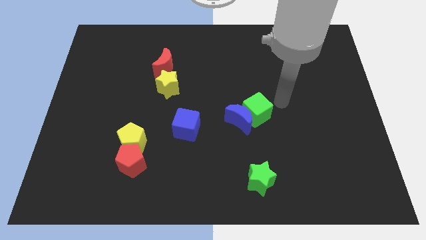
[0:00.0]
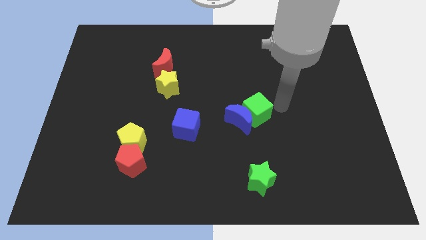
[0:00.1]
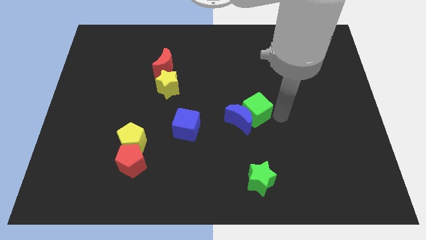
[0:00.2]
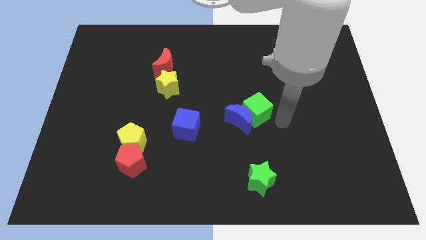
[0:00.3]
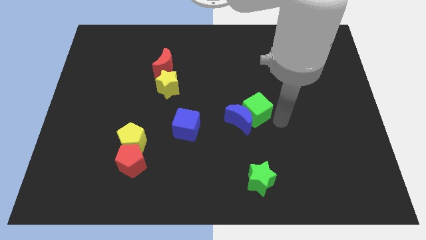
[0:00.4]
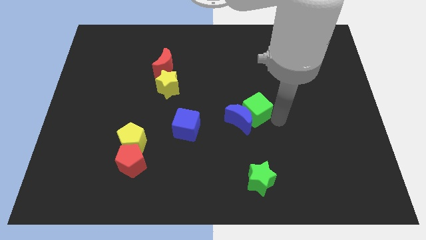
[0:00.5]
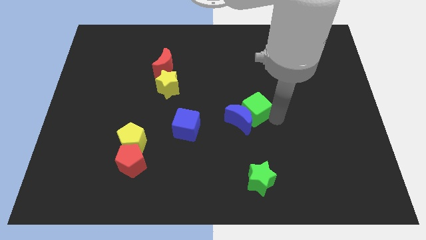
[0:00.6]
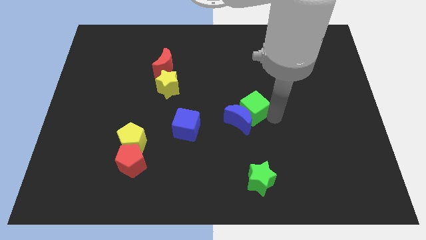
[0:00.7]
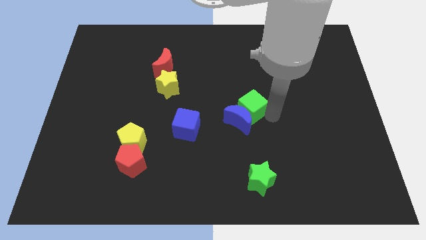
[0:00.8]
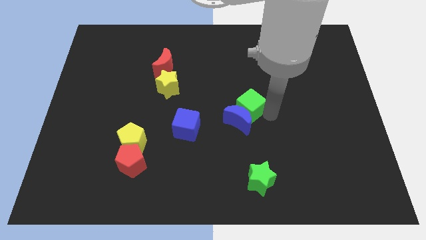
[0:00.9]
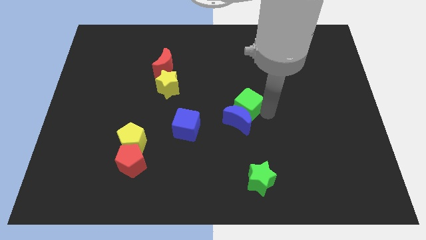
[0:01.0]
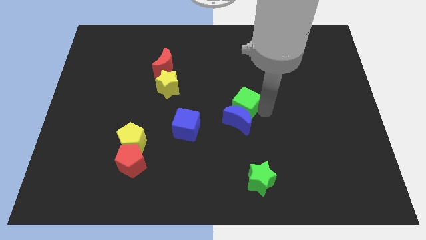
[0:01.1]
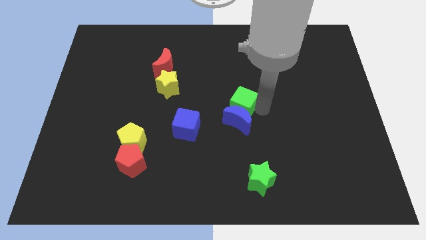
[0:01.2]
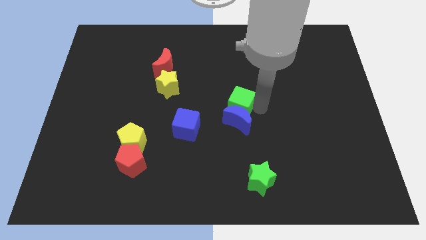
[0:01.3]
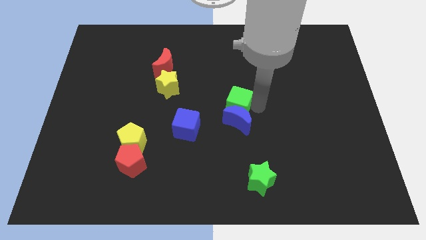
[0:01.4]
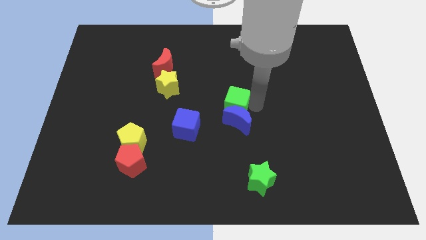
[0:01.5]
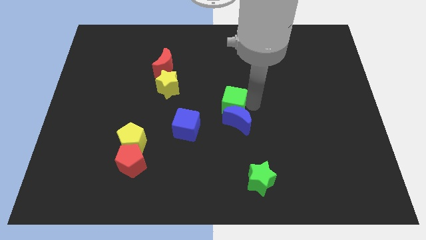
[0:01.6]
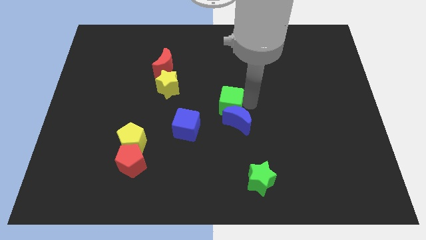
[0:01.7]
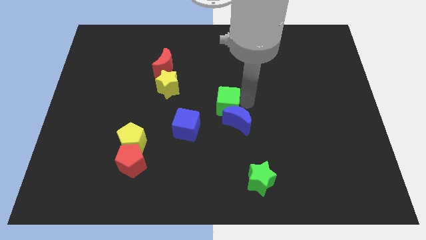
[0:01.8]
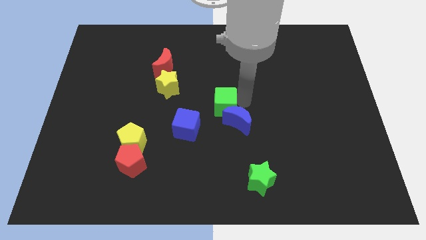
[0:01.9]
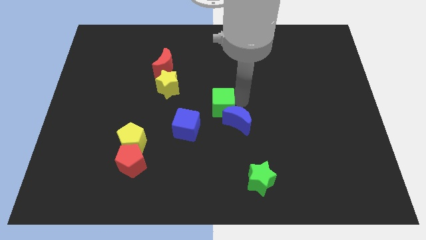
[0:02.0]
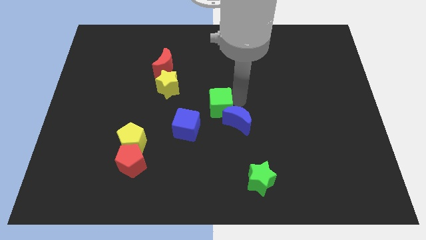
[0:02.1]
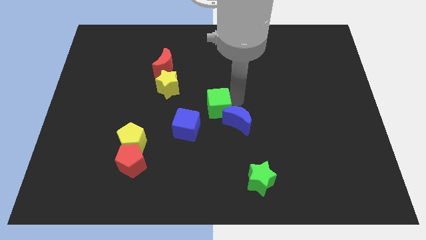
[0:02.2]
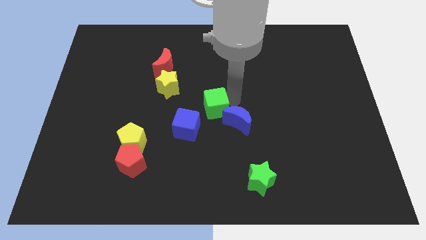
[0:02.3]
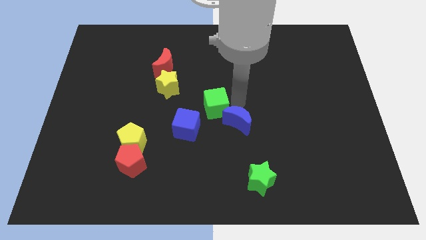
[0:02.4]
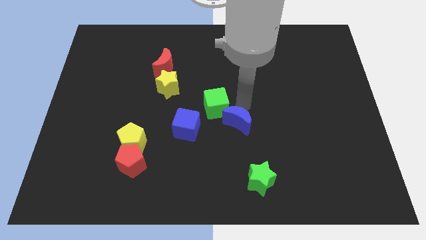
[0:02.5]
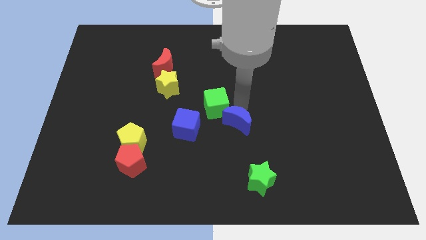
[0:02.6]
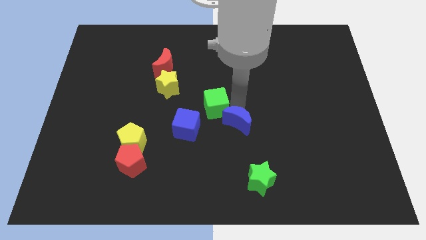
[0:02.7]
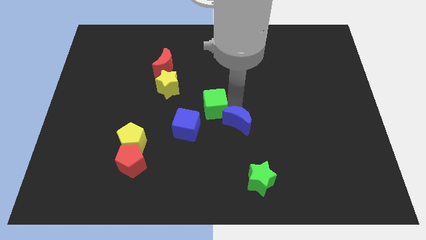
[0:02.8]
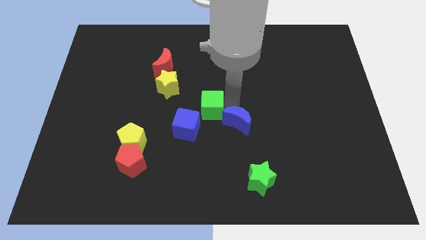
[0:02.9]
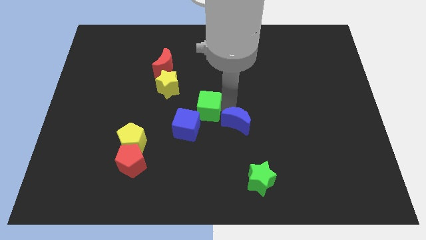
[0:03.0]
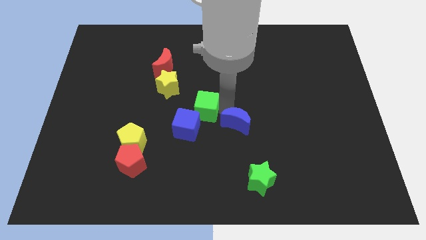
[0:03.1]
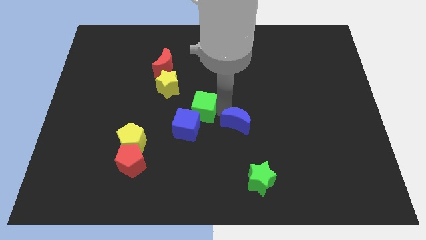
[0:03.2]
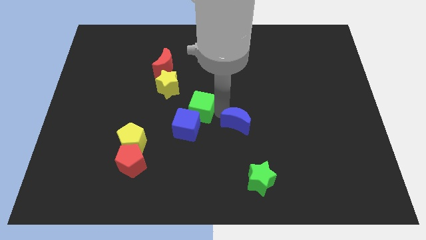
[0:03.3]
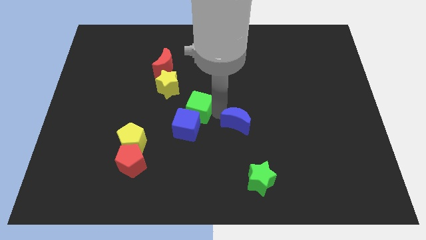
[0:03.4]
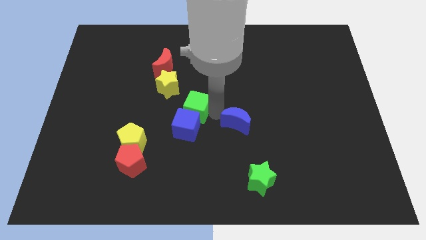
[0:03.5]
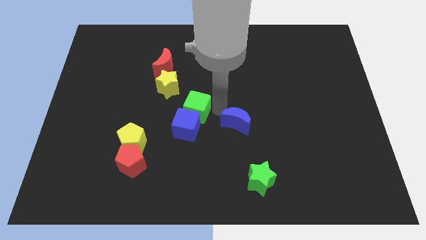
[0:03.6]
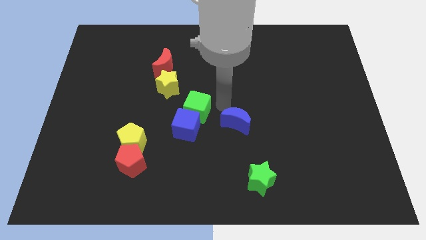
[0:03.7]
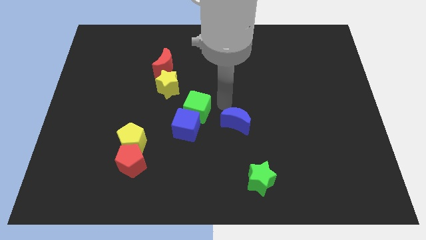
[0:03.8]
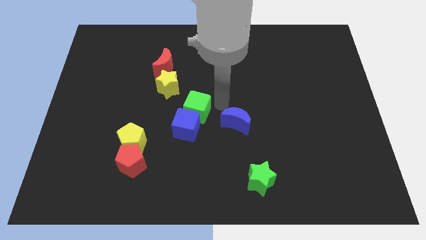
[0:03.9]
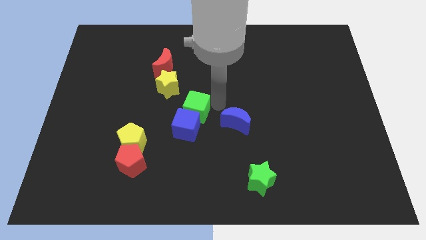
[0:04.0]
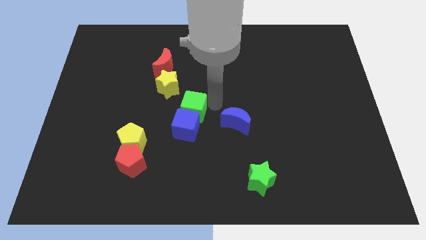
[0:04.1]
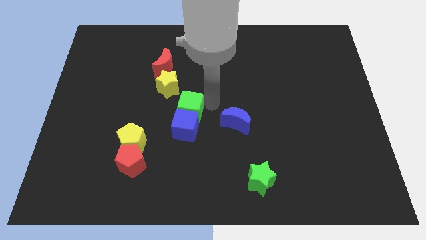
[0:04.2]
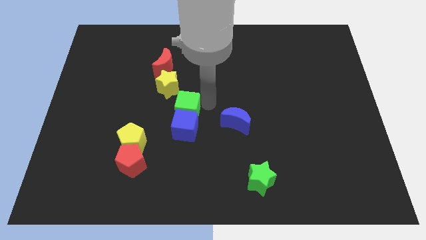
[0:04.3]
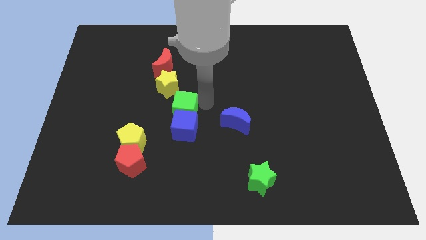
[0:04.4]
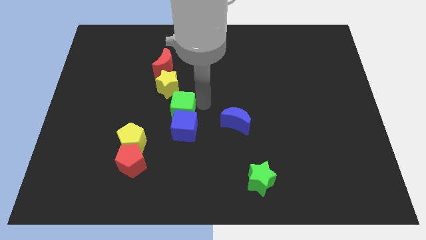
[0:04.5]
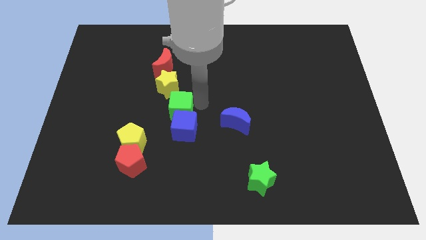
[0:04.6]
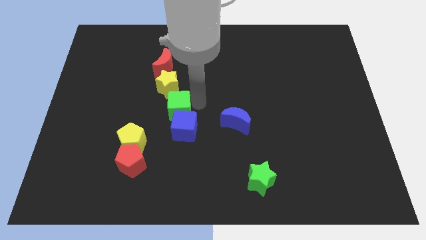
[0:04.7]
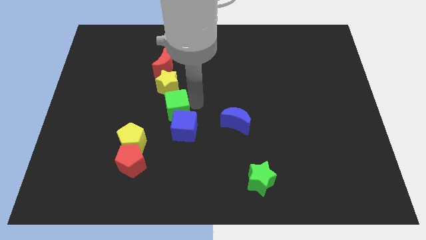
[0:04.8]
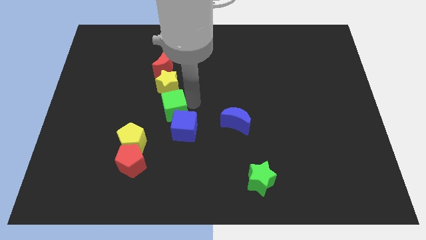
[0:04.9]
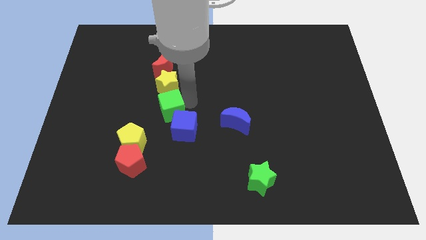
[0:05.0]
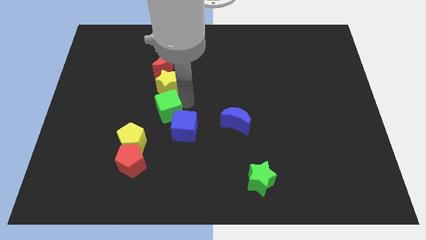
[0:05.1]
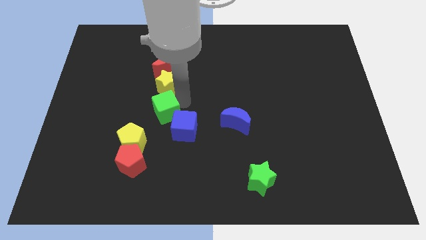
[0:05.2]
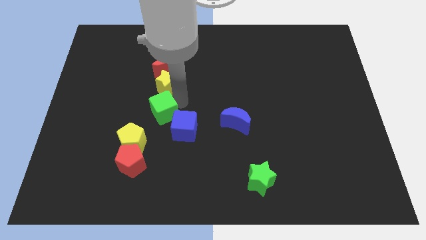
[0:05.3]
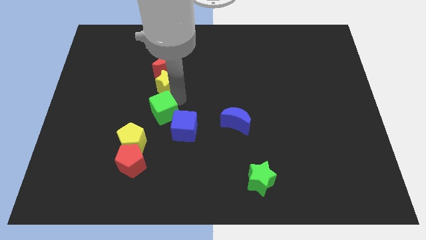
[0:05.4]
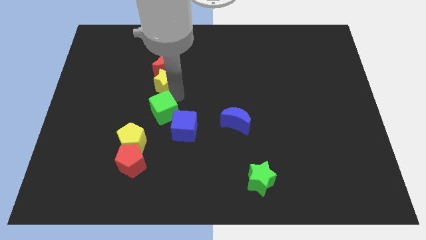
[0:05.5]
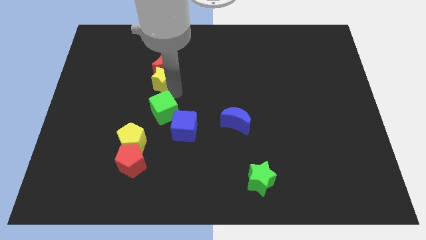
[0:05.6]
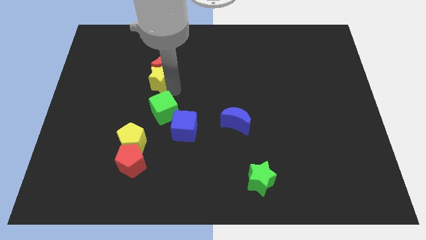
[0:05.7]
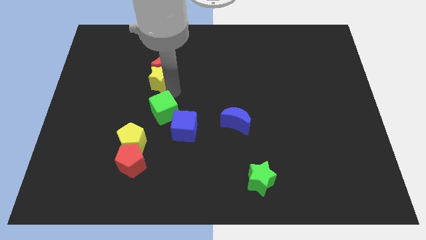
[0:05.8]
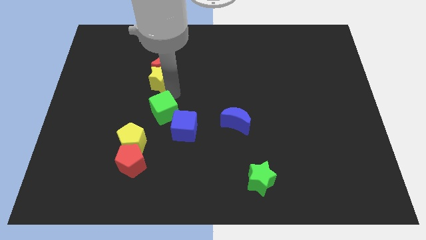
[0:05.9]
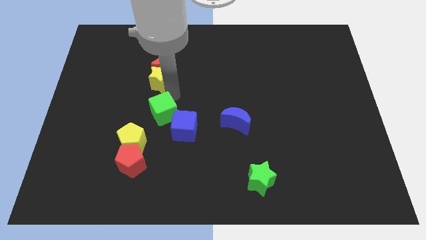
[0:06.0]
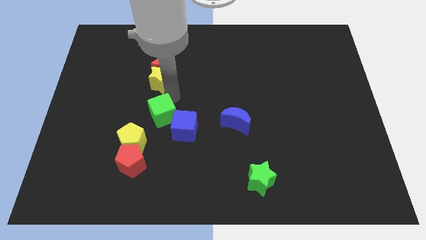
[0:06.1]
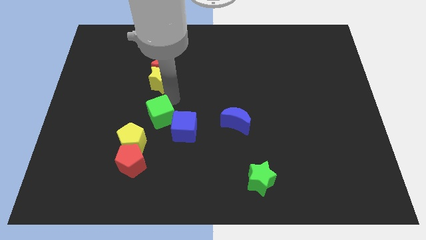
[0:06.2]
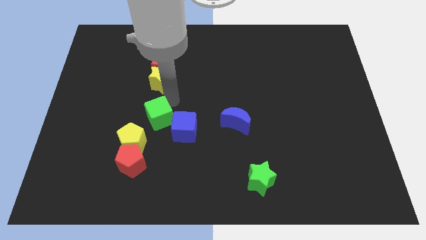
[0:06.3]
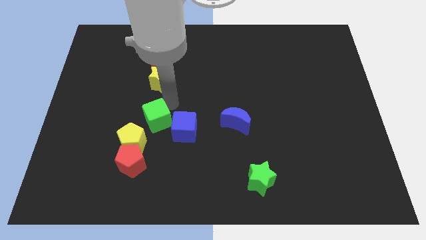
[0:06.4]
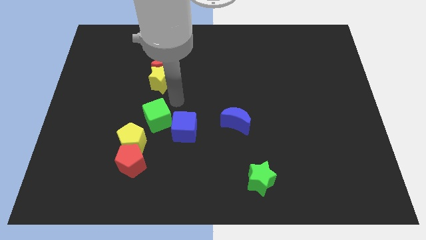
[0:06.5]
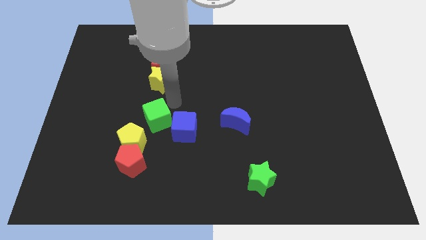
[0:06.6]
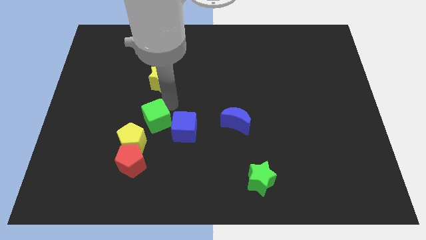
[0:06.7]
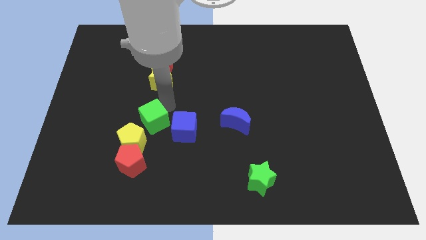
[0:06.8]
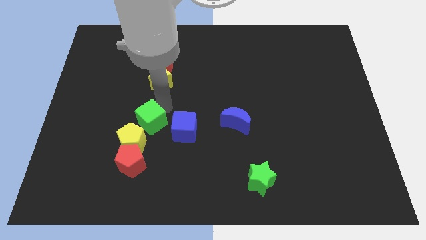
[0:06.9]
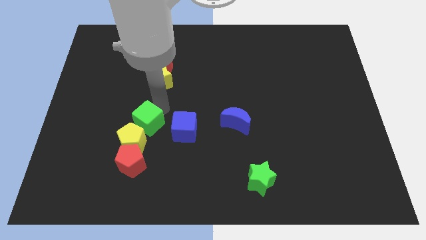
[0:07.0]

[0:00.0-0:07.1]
put the green cube towards the yellow pentagon
